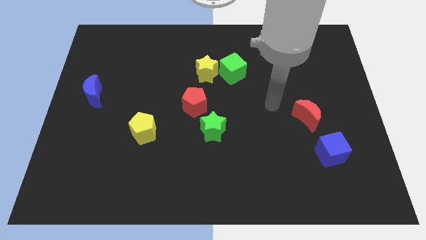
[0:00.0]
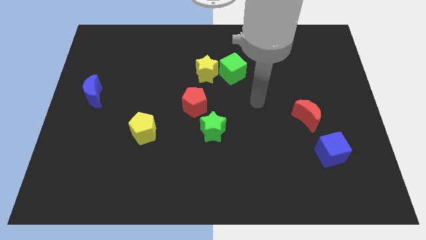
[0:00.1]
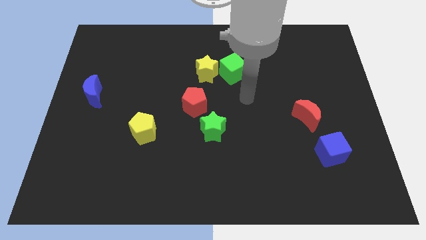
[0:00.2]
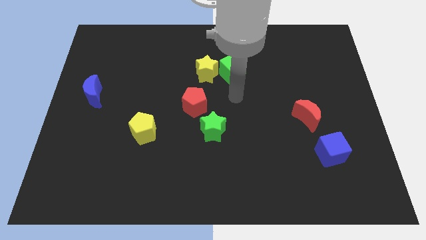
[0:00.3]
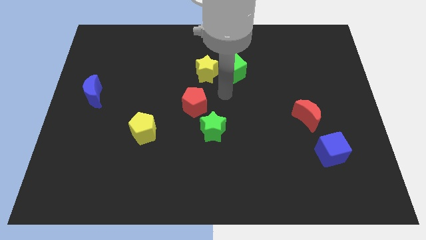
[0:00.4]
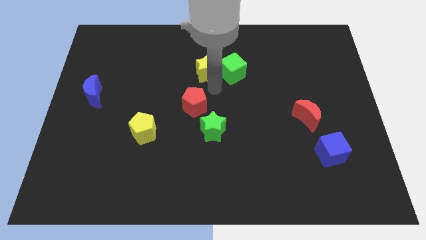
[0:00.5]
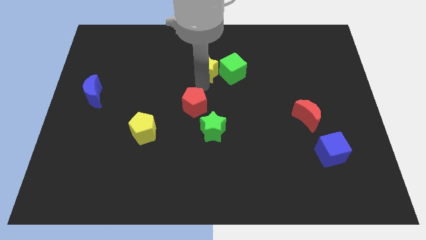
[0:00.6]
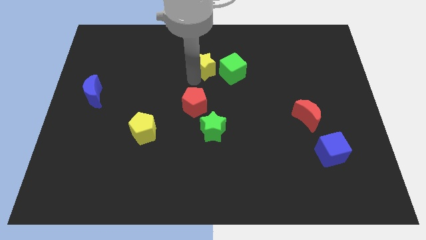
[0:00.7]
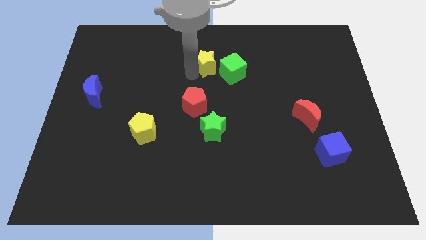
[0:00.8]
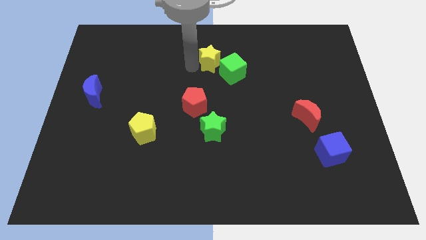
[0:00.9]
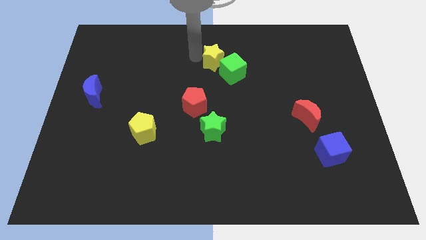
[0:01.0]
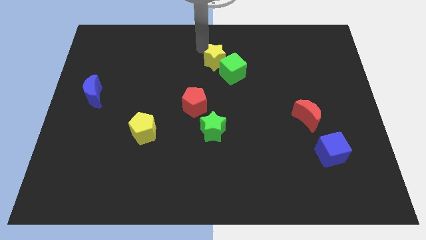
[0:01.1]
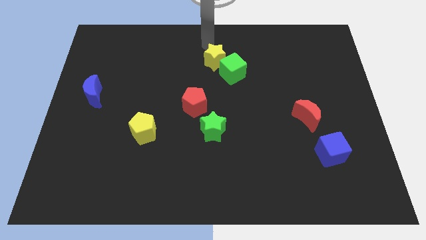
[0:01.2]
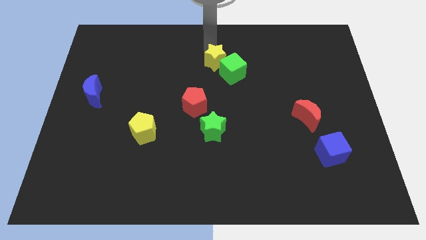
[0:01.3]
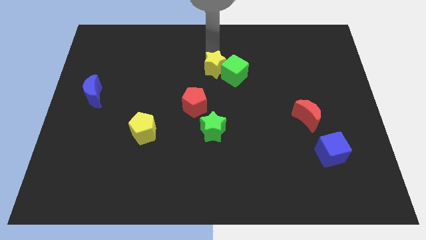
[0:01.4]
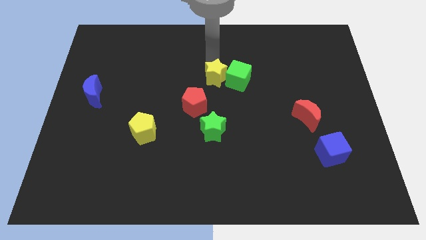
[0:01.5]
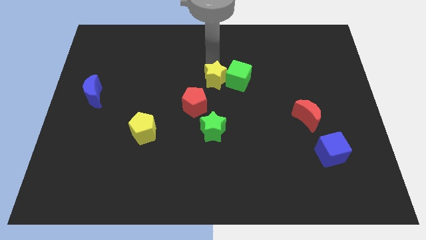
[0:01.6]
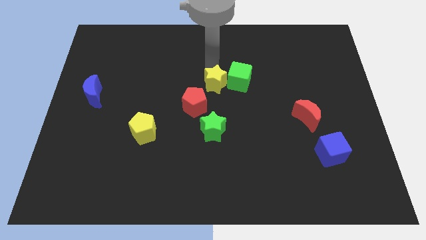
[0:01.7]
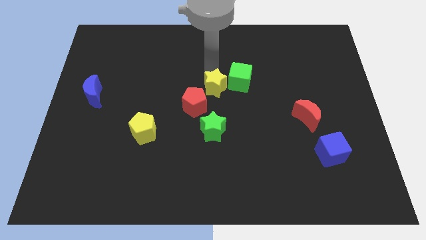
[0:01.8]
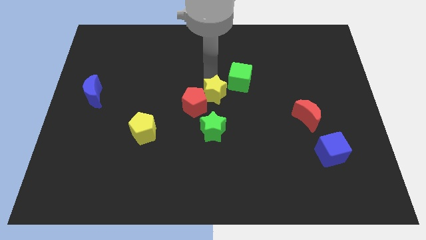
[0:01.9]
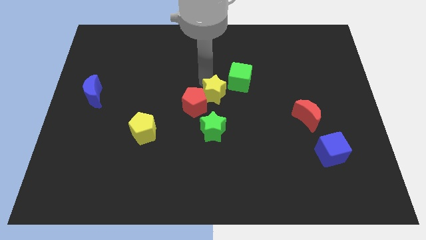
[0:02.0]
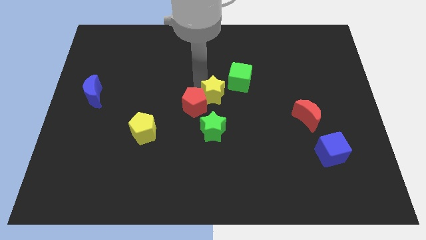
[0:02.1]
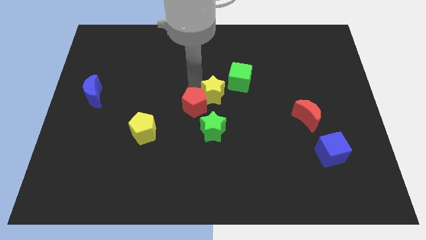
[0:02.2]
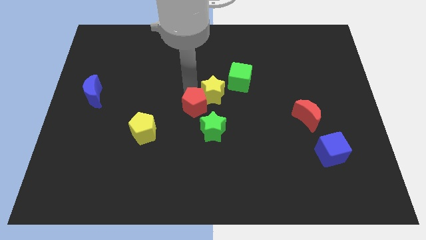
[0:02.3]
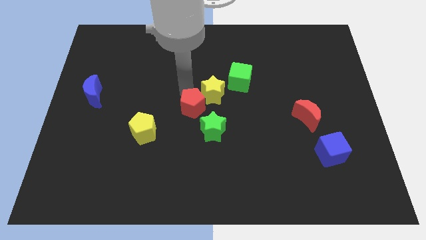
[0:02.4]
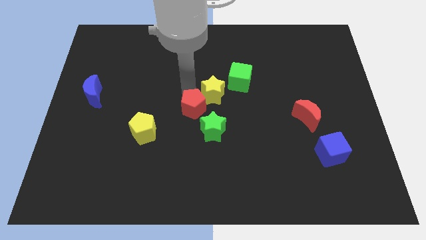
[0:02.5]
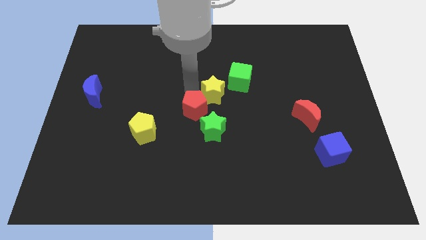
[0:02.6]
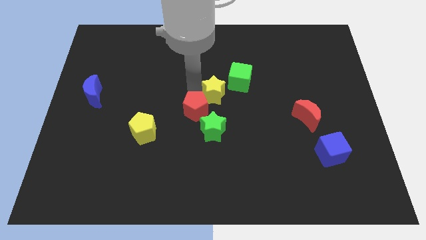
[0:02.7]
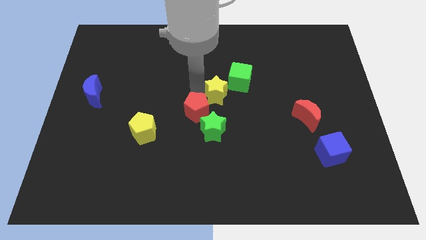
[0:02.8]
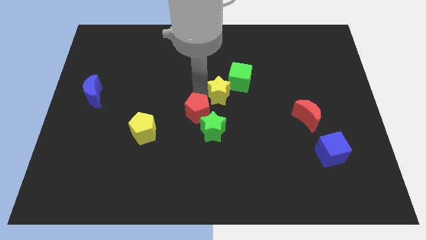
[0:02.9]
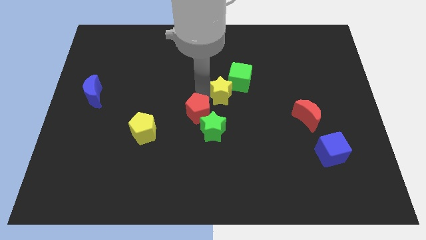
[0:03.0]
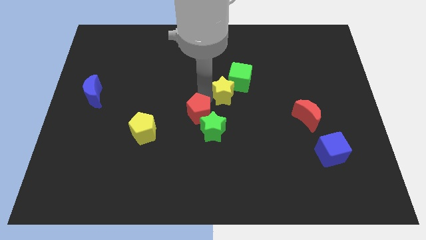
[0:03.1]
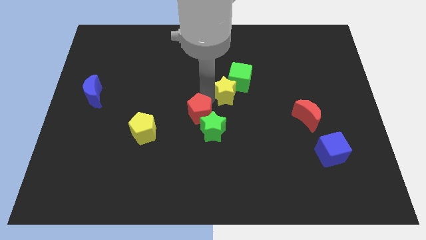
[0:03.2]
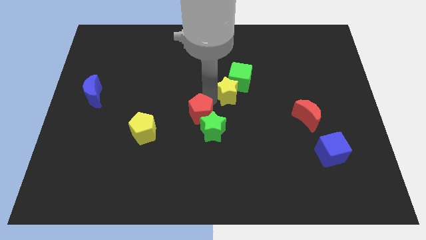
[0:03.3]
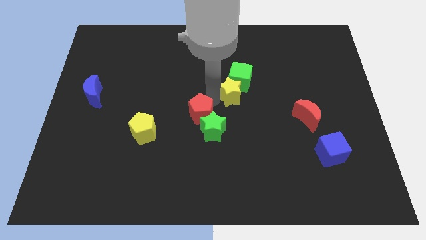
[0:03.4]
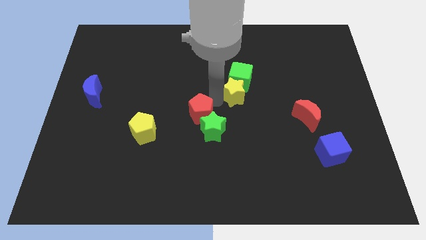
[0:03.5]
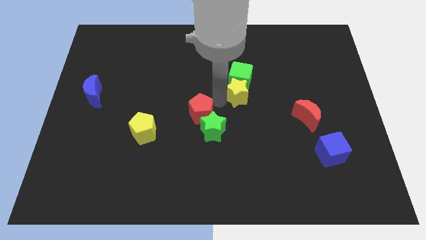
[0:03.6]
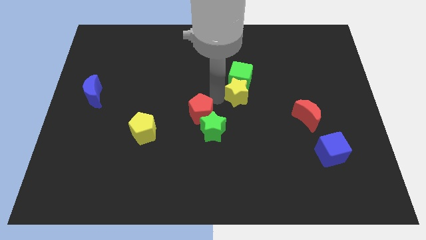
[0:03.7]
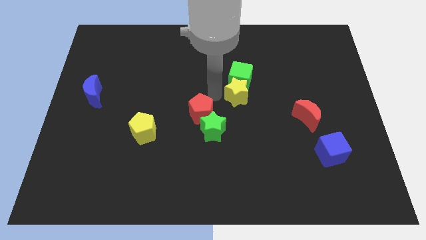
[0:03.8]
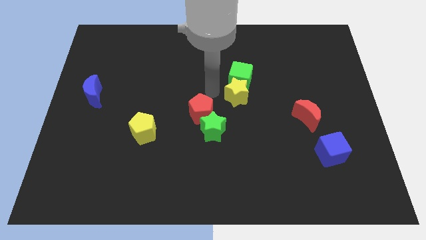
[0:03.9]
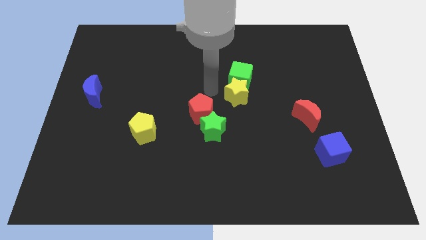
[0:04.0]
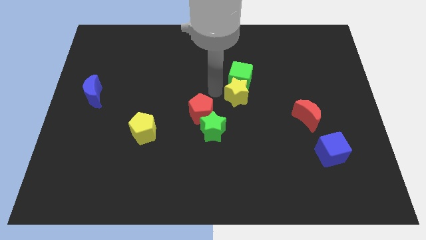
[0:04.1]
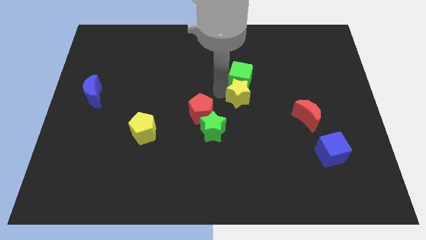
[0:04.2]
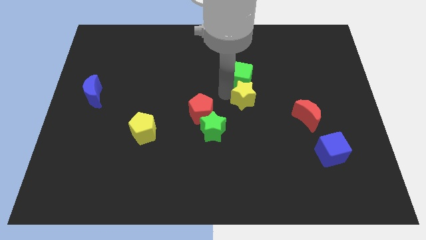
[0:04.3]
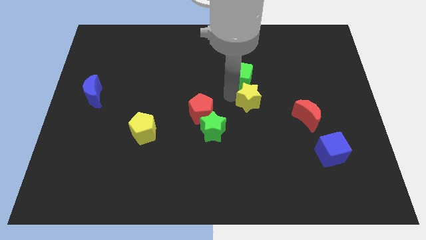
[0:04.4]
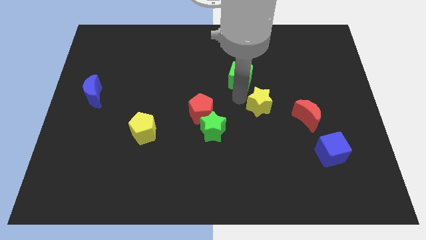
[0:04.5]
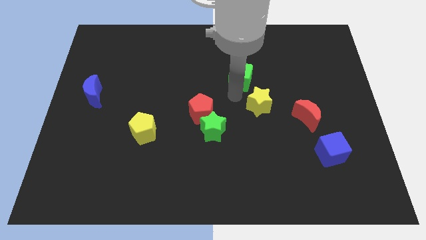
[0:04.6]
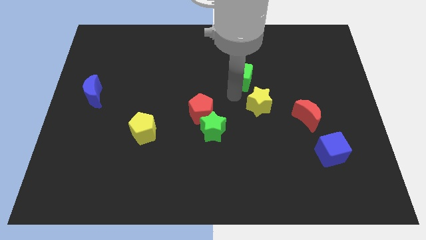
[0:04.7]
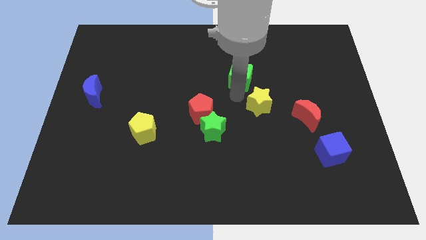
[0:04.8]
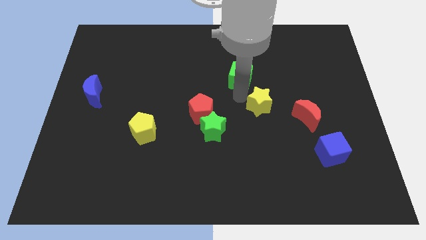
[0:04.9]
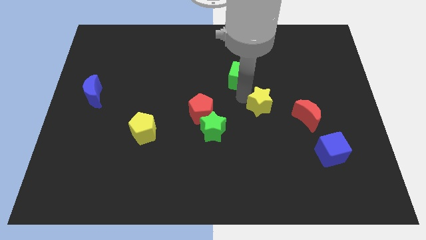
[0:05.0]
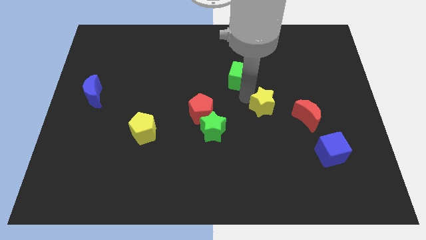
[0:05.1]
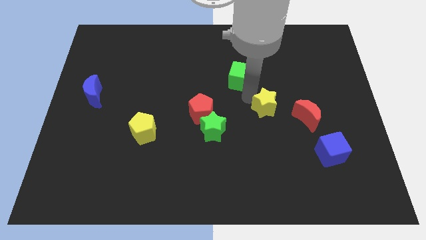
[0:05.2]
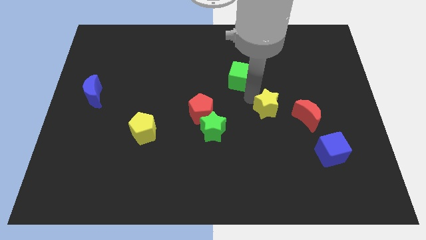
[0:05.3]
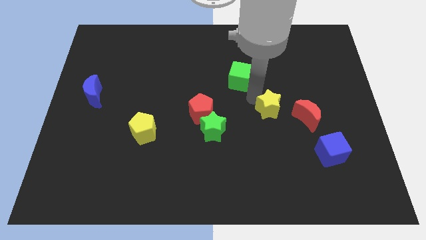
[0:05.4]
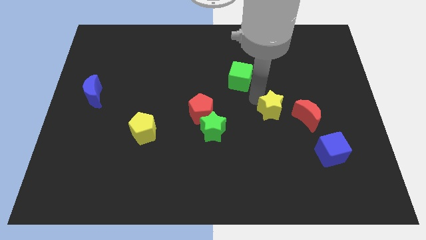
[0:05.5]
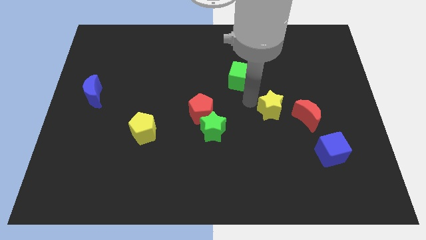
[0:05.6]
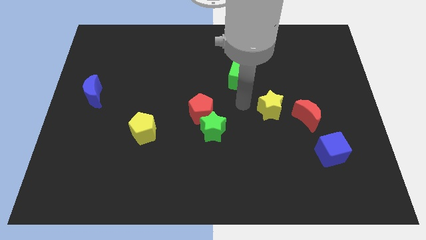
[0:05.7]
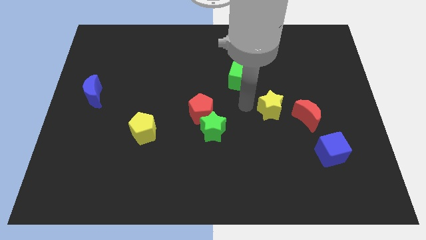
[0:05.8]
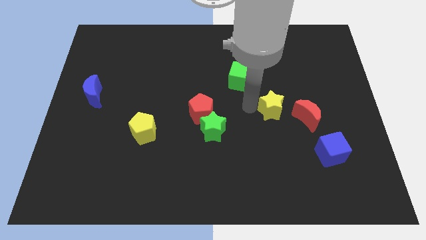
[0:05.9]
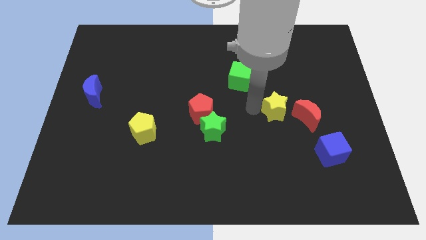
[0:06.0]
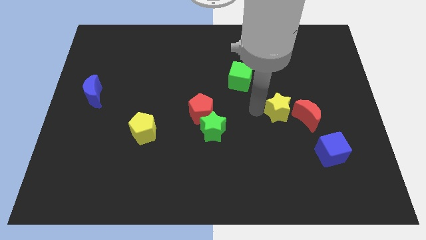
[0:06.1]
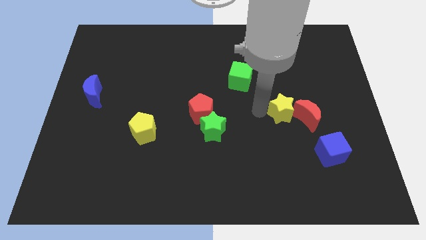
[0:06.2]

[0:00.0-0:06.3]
put the yellow star close to the red moon
